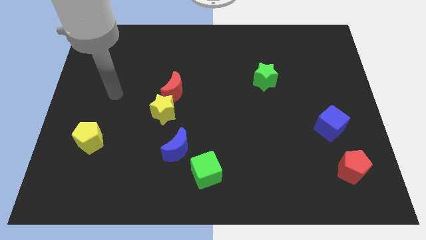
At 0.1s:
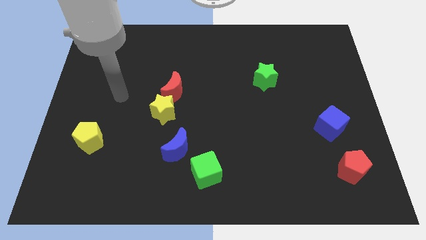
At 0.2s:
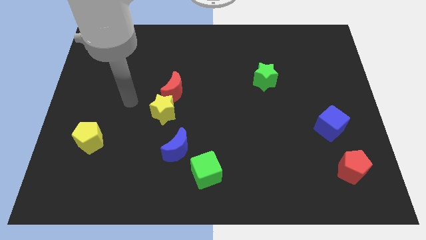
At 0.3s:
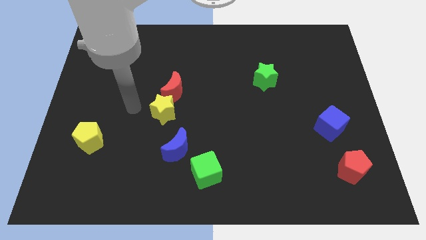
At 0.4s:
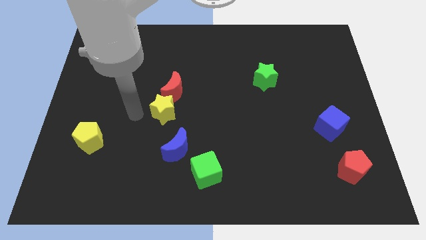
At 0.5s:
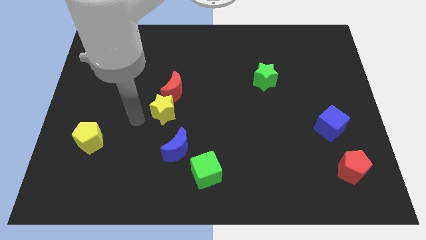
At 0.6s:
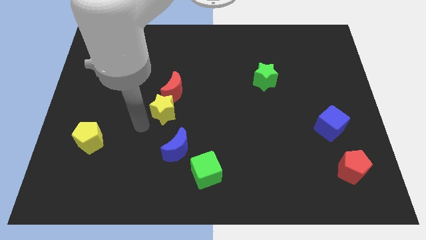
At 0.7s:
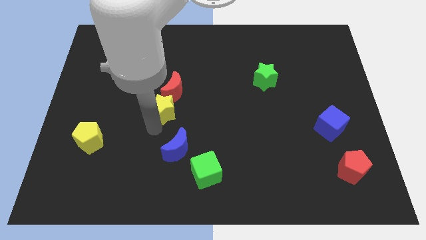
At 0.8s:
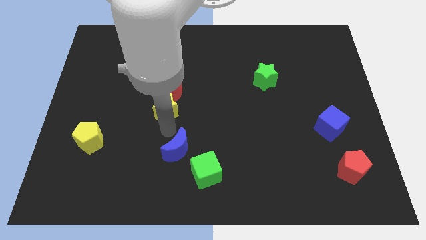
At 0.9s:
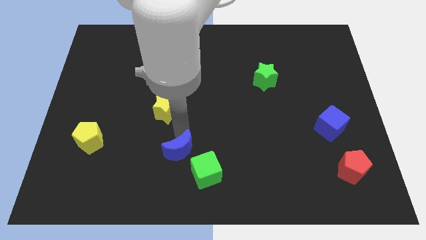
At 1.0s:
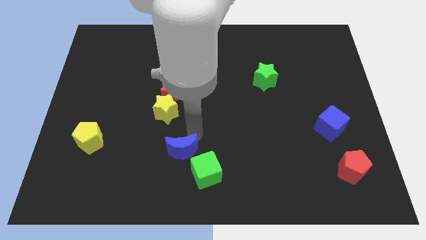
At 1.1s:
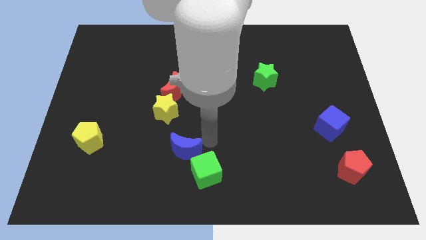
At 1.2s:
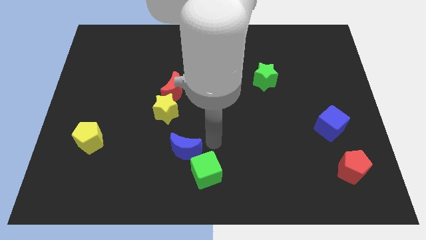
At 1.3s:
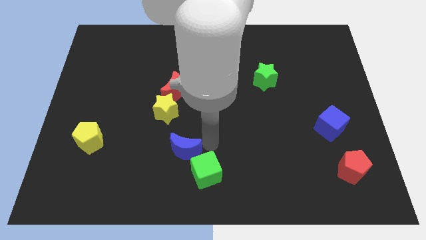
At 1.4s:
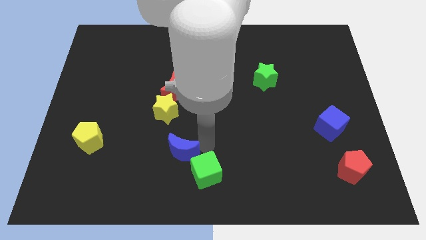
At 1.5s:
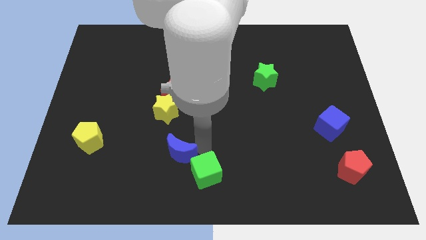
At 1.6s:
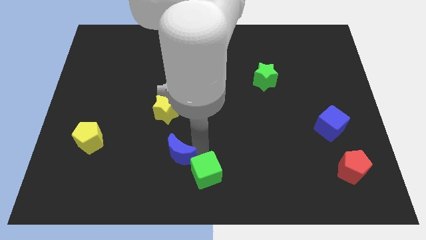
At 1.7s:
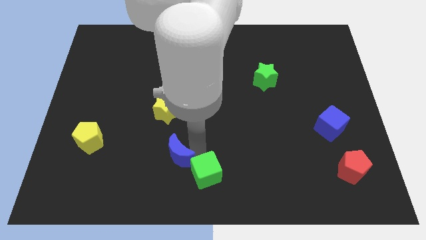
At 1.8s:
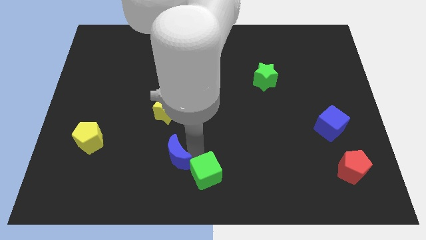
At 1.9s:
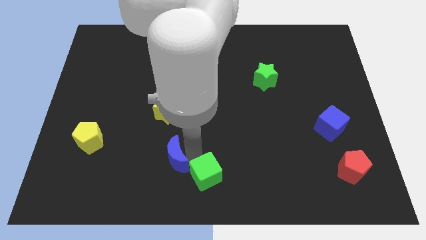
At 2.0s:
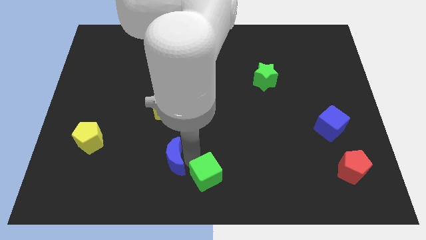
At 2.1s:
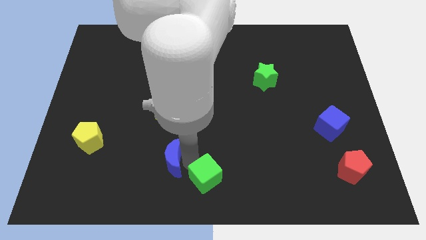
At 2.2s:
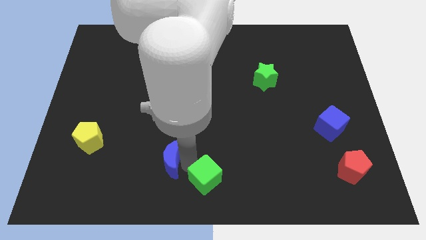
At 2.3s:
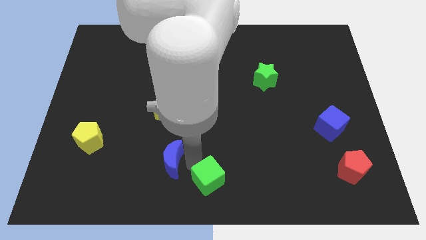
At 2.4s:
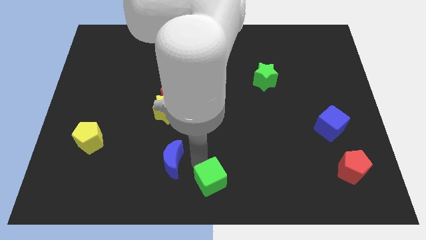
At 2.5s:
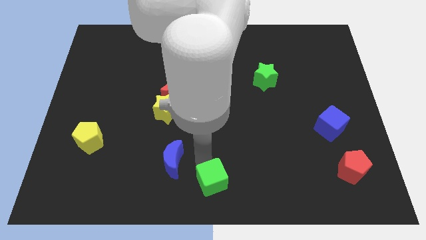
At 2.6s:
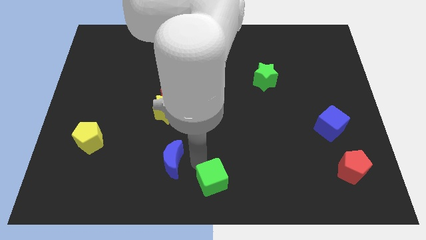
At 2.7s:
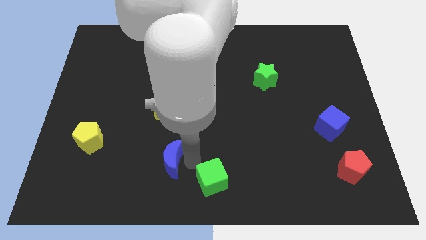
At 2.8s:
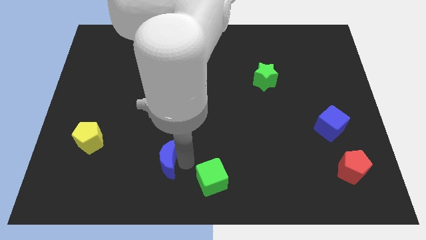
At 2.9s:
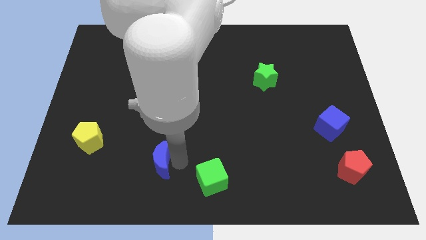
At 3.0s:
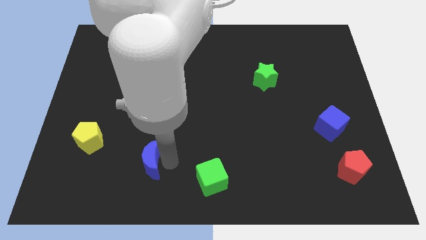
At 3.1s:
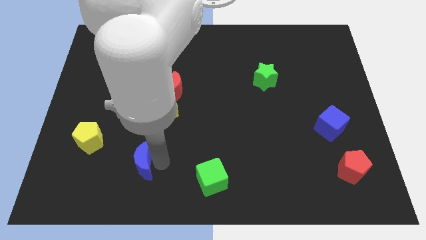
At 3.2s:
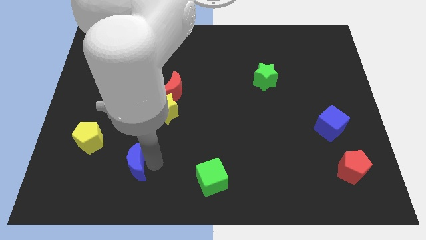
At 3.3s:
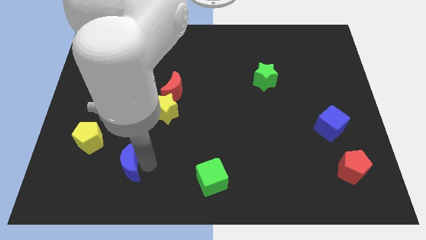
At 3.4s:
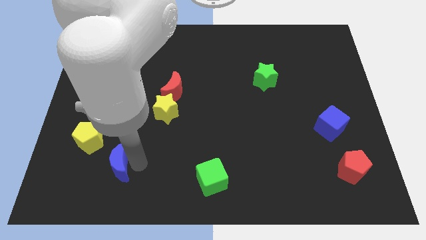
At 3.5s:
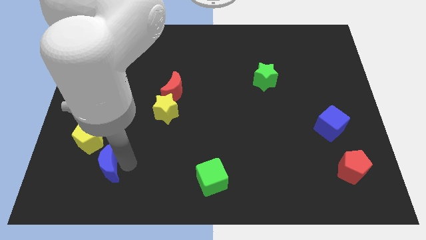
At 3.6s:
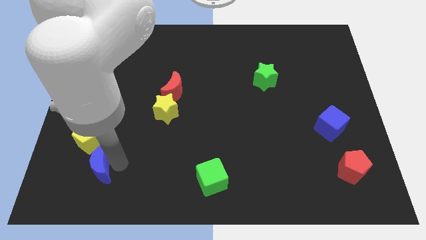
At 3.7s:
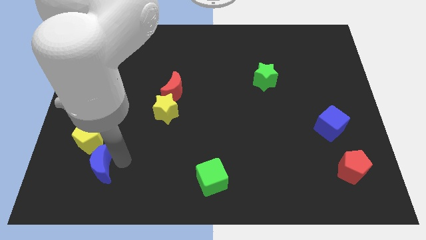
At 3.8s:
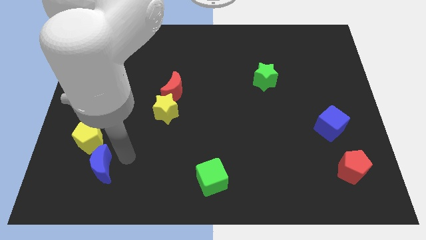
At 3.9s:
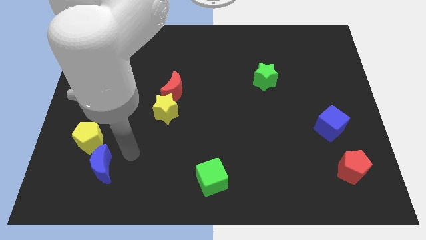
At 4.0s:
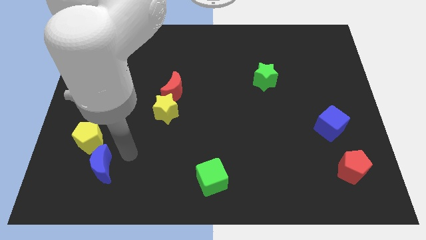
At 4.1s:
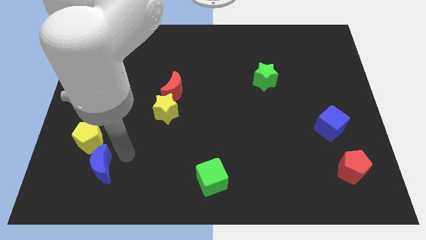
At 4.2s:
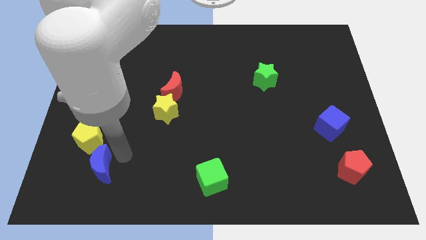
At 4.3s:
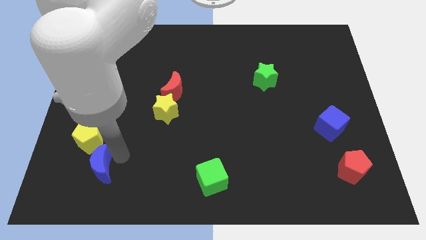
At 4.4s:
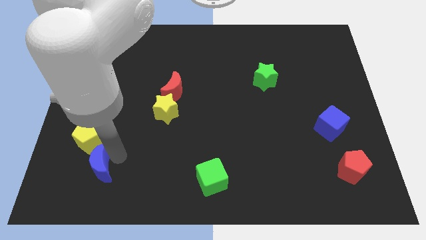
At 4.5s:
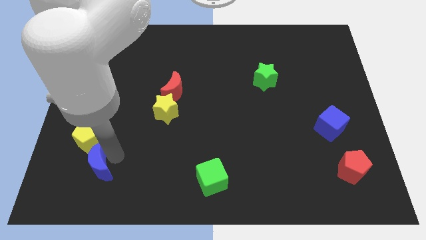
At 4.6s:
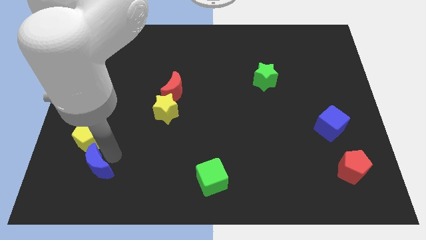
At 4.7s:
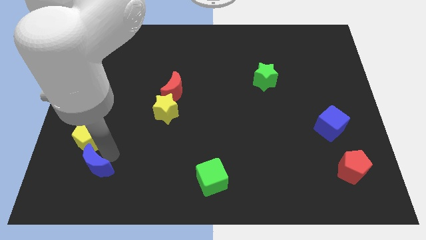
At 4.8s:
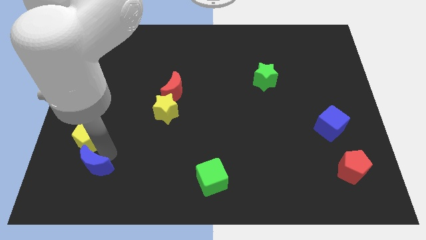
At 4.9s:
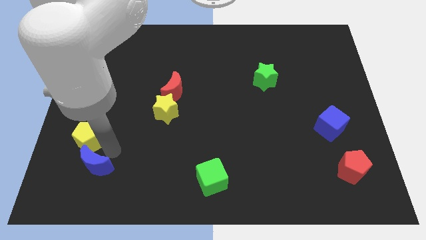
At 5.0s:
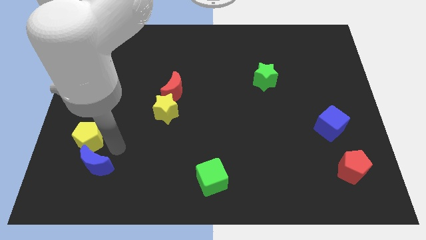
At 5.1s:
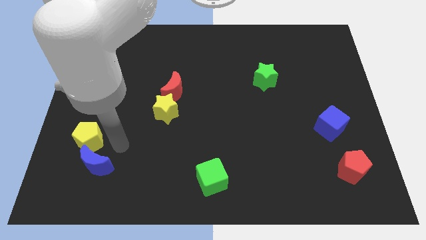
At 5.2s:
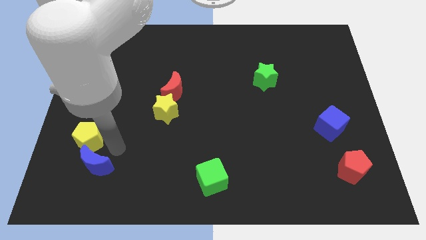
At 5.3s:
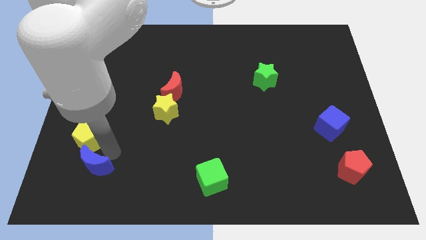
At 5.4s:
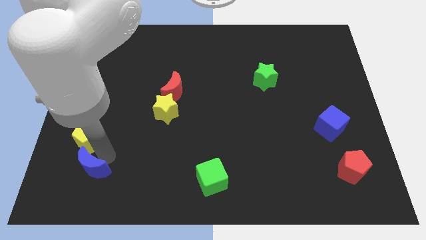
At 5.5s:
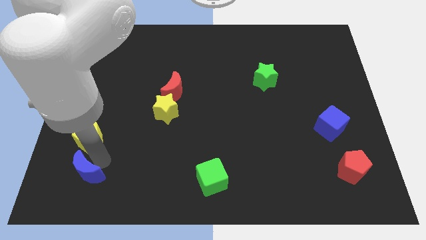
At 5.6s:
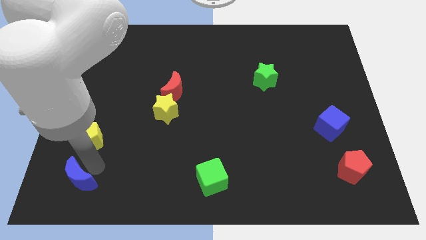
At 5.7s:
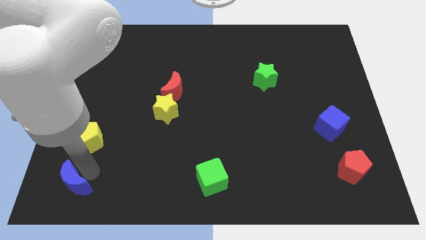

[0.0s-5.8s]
put the blue moon to the bottom left corner

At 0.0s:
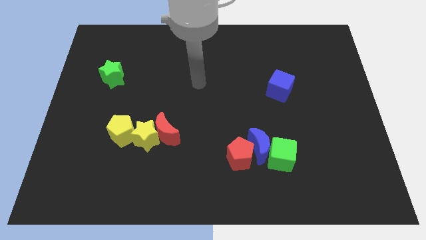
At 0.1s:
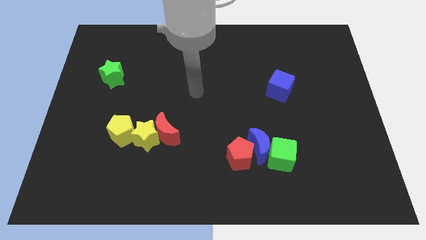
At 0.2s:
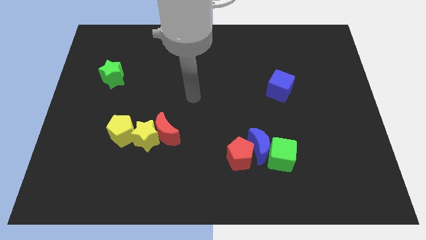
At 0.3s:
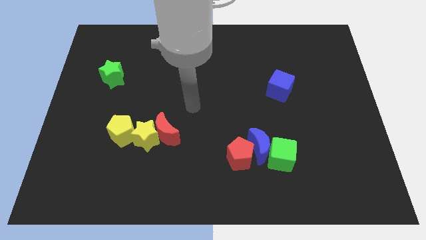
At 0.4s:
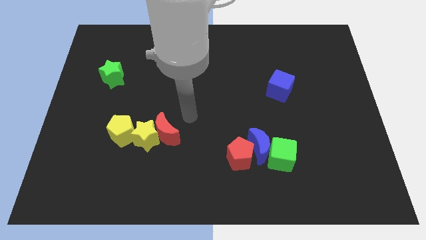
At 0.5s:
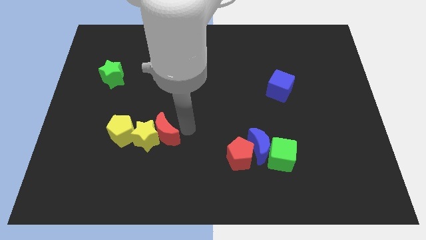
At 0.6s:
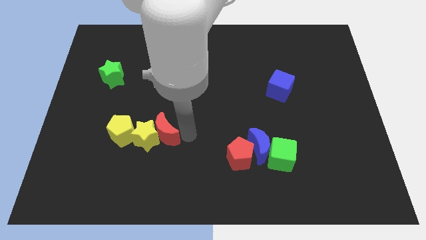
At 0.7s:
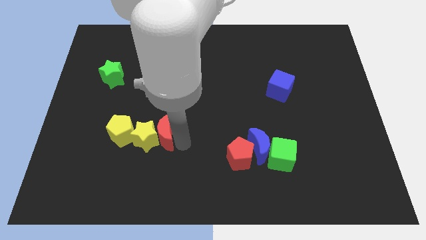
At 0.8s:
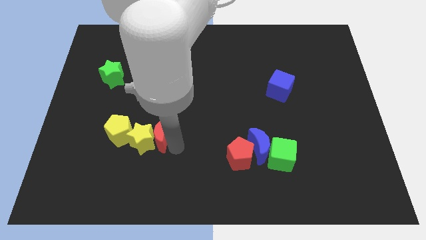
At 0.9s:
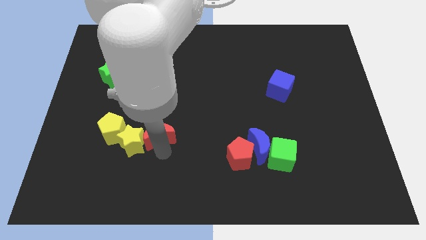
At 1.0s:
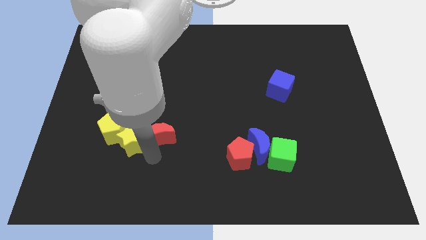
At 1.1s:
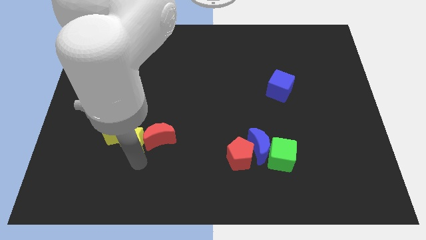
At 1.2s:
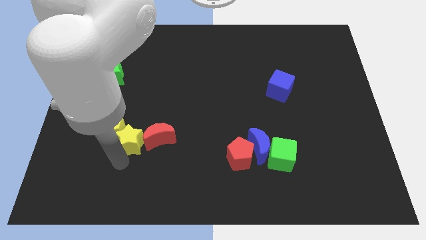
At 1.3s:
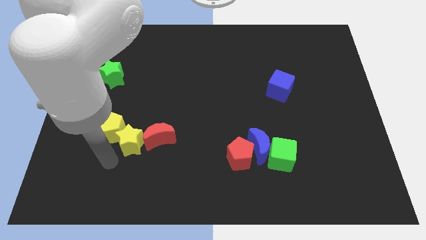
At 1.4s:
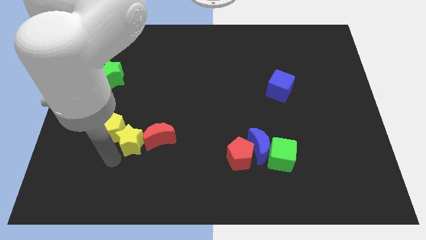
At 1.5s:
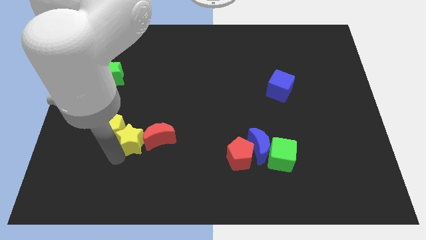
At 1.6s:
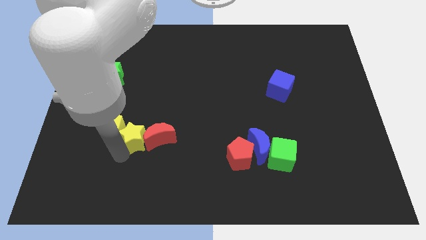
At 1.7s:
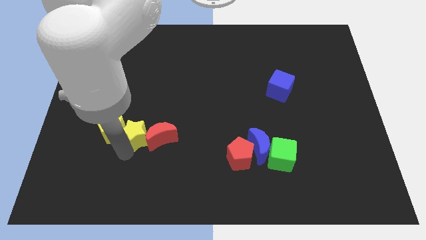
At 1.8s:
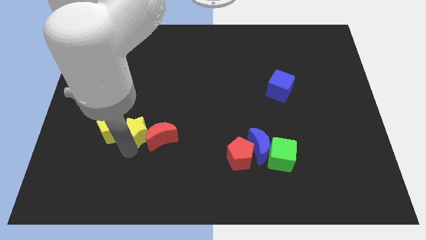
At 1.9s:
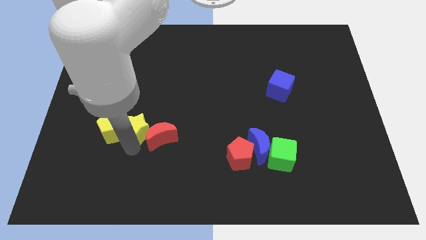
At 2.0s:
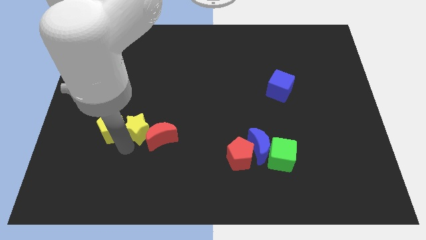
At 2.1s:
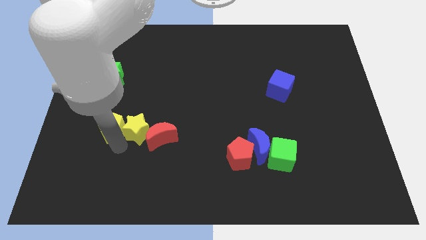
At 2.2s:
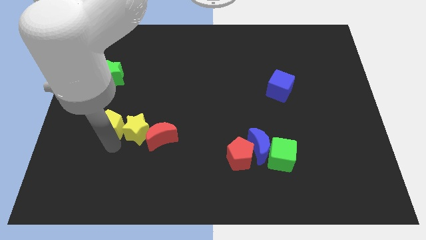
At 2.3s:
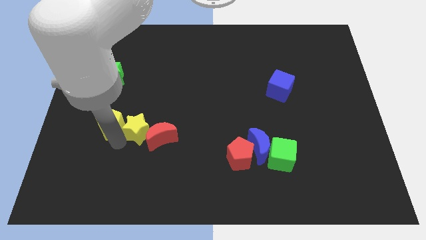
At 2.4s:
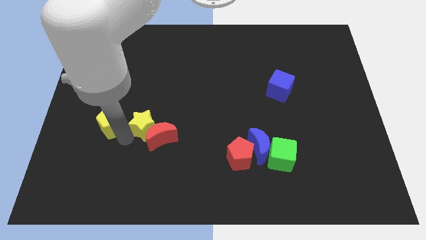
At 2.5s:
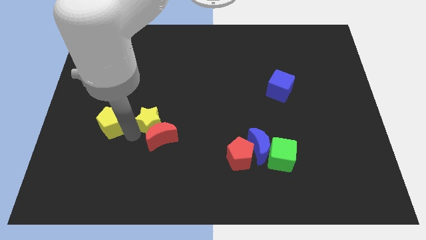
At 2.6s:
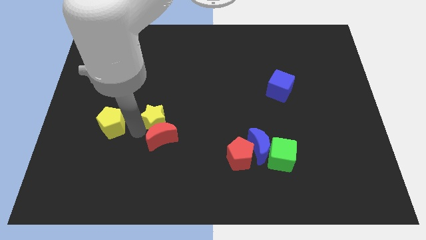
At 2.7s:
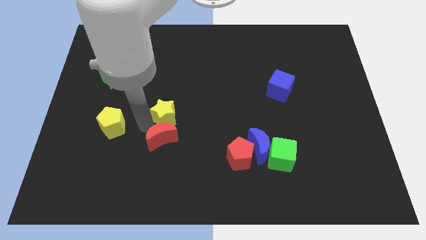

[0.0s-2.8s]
slide the yellow star to the middle of the board
